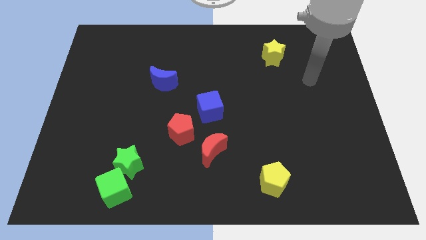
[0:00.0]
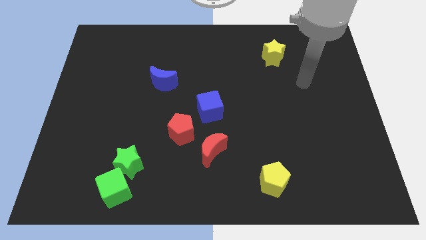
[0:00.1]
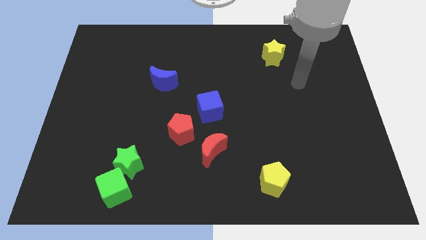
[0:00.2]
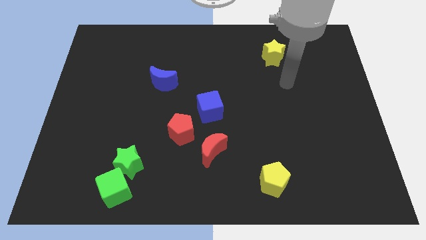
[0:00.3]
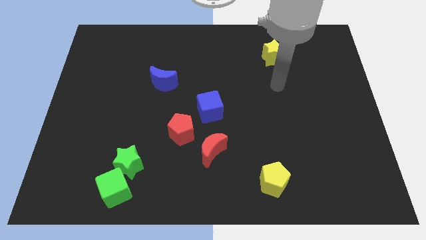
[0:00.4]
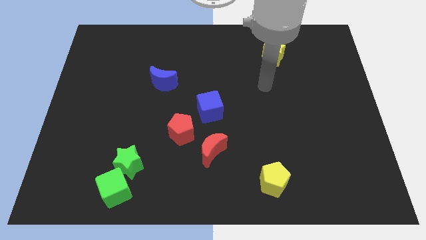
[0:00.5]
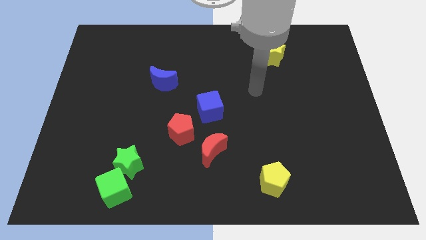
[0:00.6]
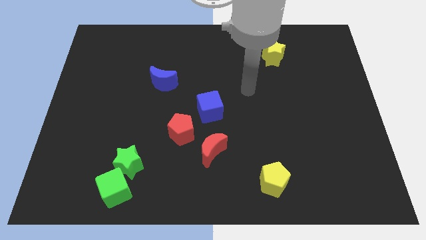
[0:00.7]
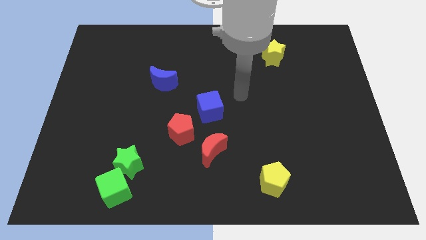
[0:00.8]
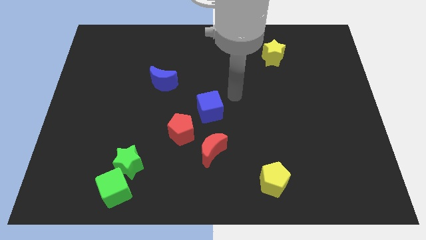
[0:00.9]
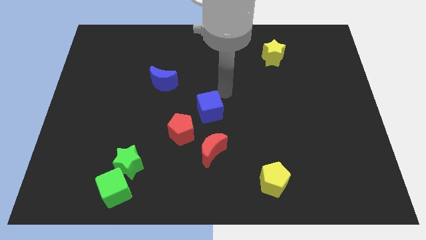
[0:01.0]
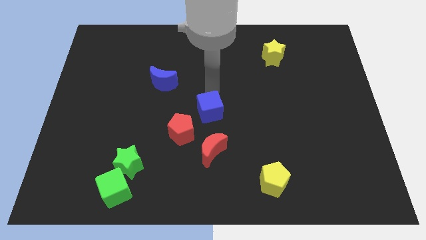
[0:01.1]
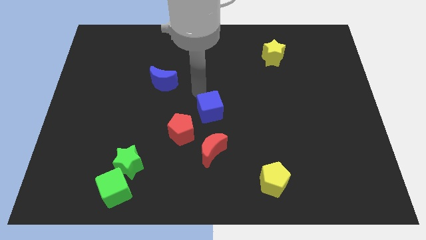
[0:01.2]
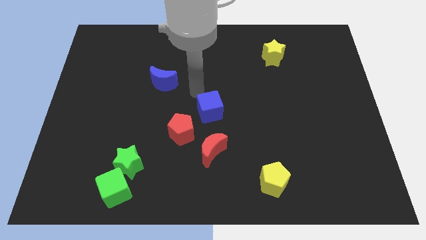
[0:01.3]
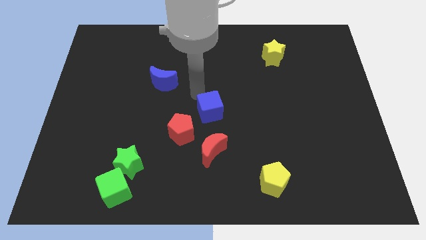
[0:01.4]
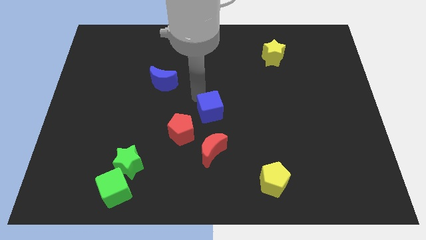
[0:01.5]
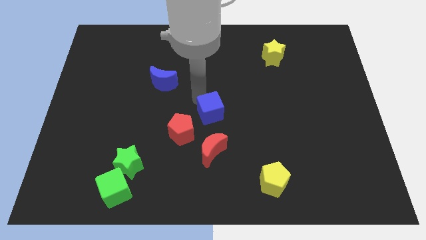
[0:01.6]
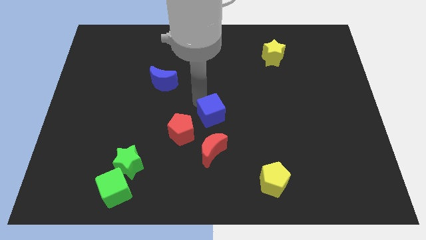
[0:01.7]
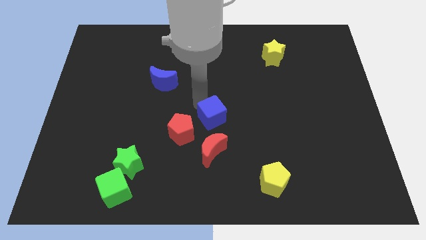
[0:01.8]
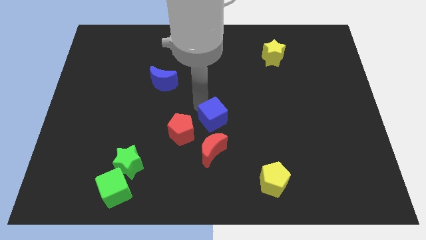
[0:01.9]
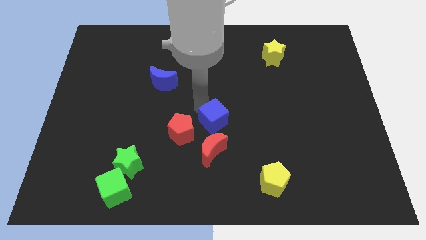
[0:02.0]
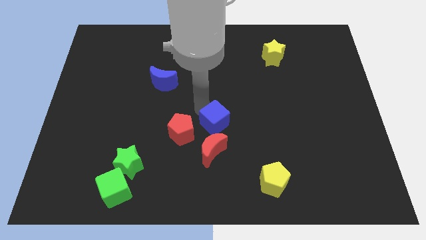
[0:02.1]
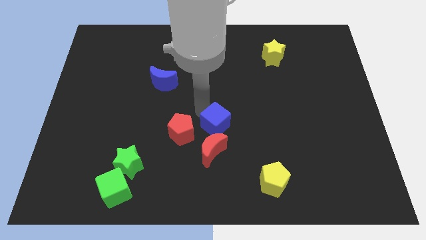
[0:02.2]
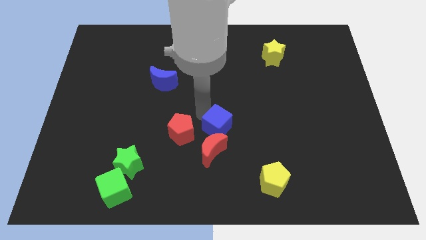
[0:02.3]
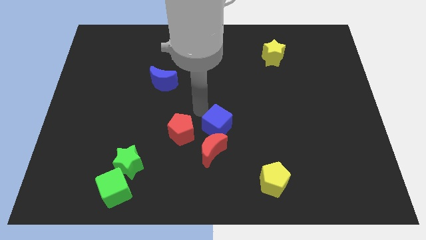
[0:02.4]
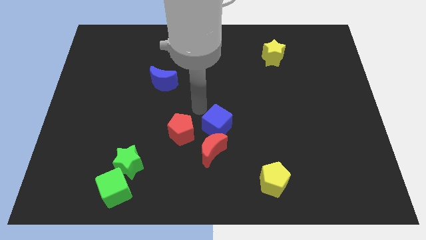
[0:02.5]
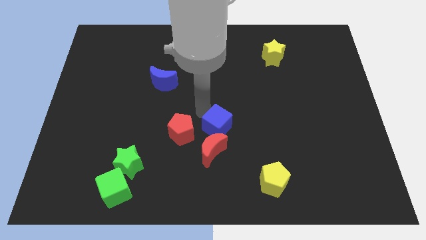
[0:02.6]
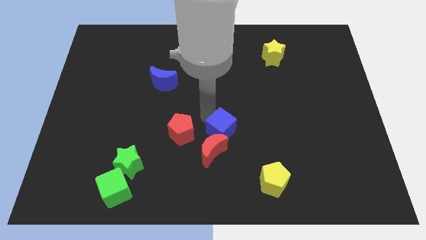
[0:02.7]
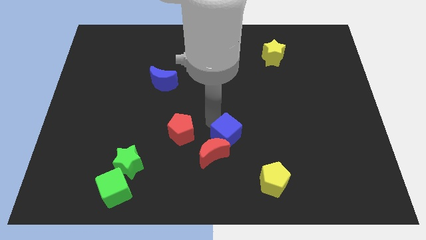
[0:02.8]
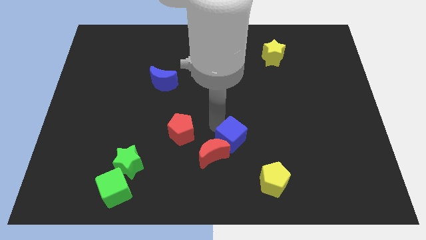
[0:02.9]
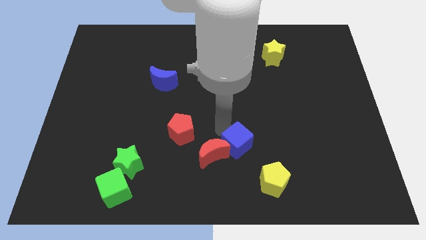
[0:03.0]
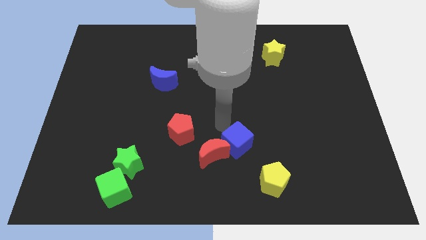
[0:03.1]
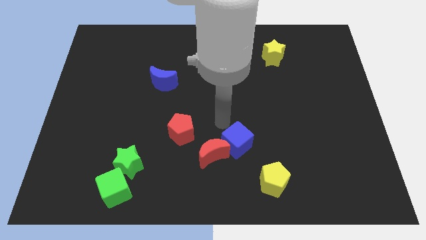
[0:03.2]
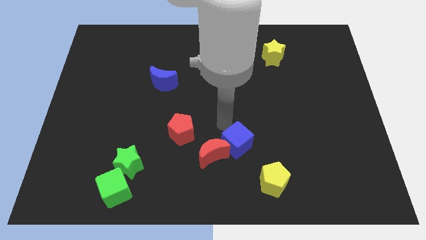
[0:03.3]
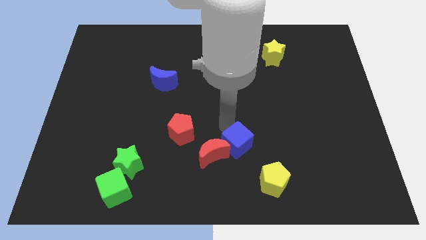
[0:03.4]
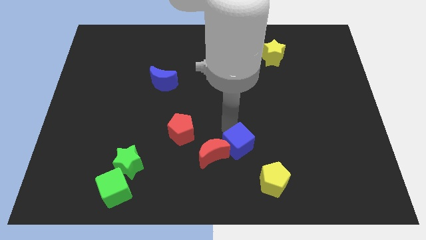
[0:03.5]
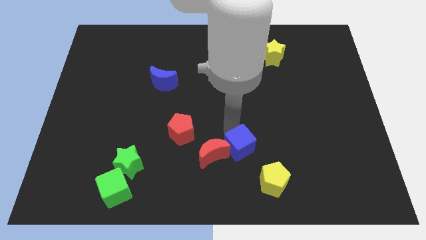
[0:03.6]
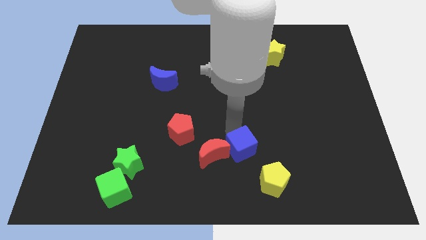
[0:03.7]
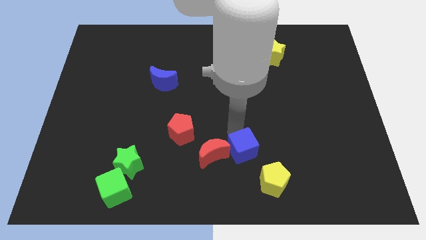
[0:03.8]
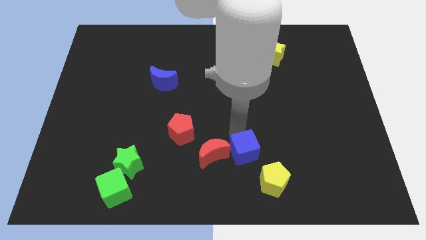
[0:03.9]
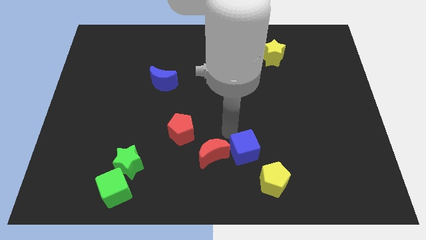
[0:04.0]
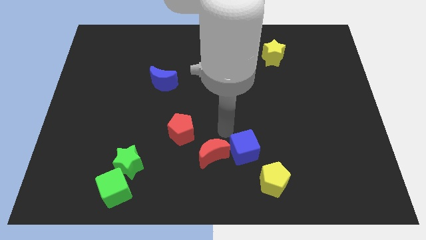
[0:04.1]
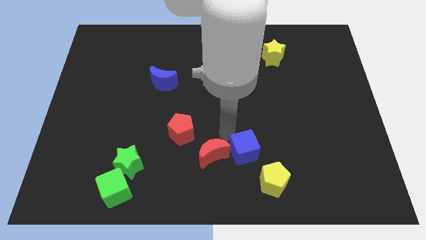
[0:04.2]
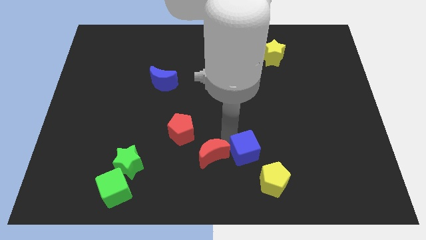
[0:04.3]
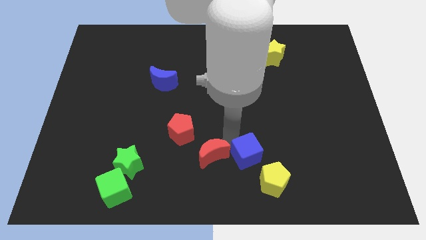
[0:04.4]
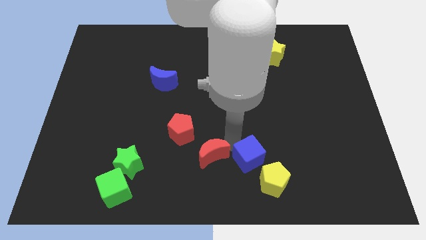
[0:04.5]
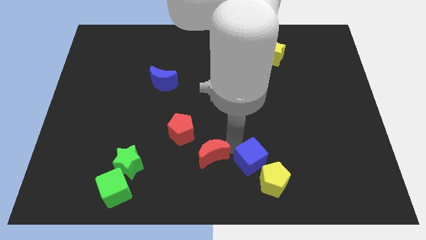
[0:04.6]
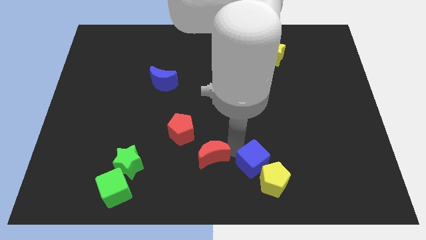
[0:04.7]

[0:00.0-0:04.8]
slide the blue cube towards the yellow pentagon

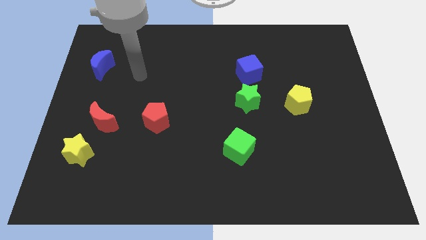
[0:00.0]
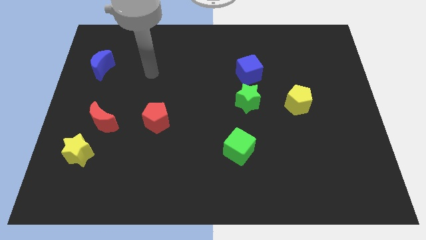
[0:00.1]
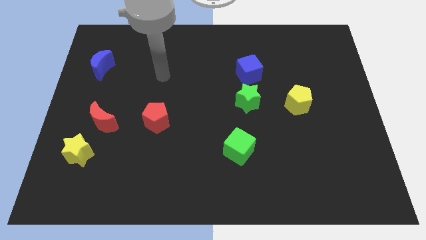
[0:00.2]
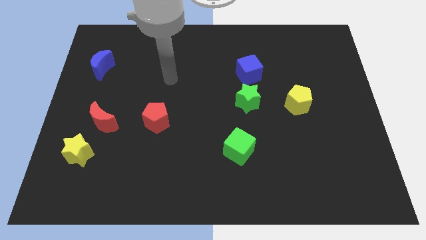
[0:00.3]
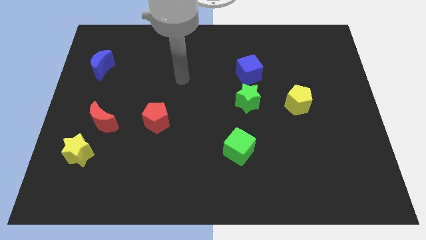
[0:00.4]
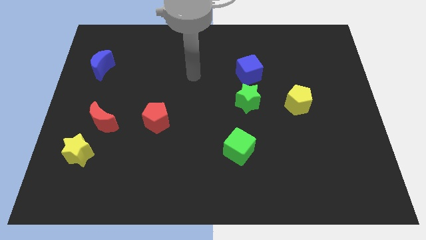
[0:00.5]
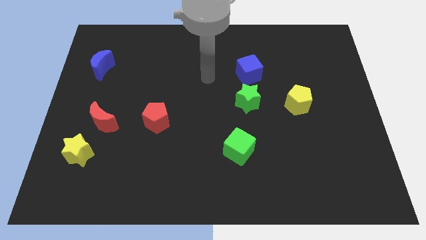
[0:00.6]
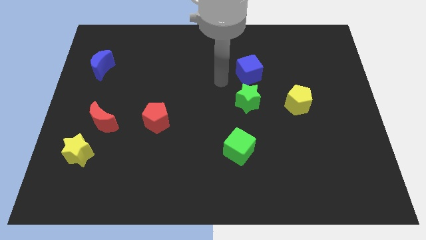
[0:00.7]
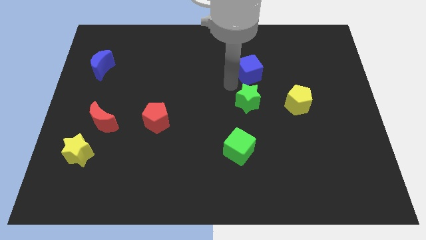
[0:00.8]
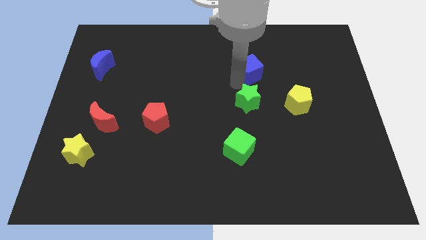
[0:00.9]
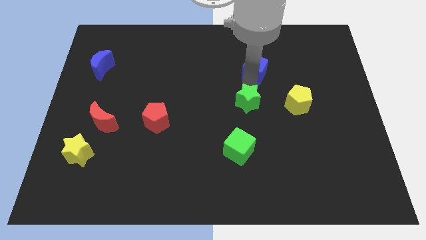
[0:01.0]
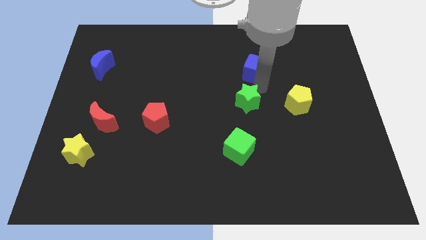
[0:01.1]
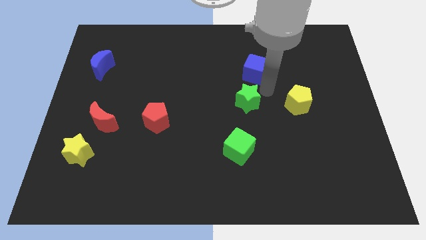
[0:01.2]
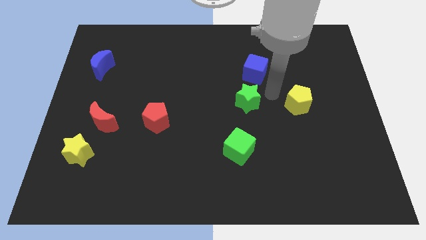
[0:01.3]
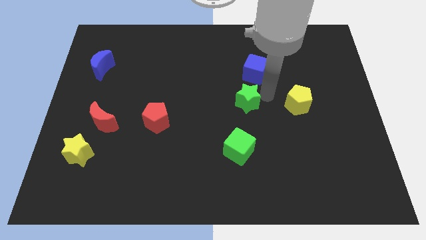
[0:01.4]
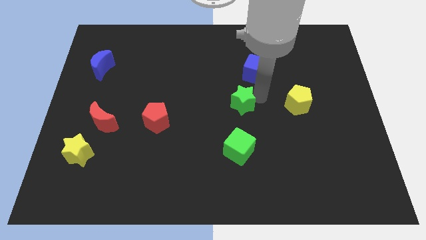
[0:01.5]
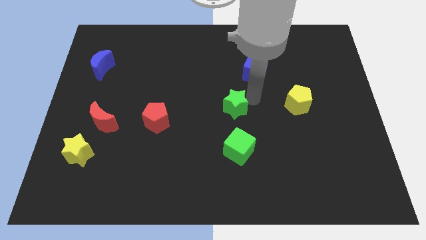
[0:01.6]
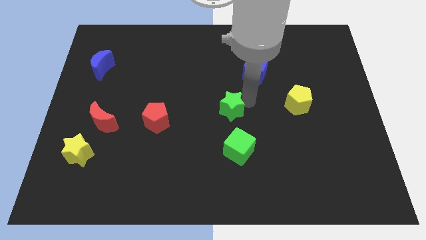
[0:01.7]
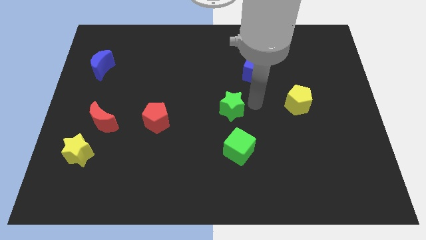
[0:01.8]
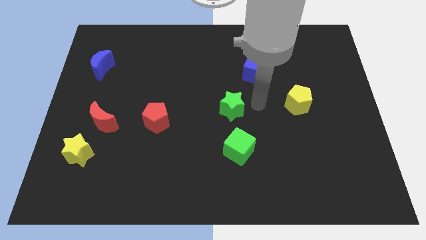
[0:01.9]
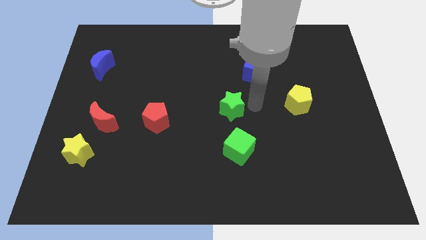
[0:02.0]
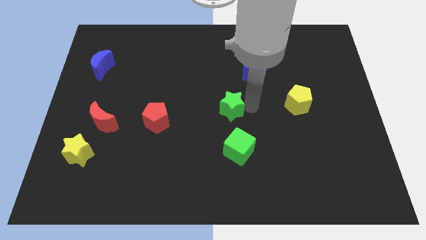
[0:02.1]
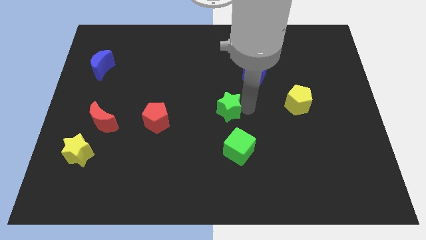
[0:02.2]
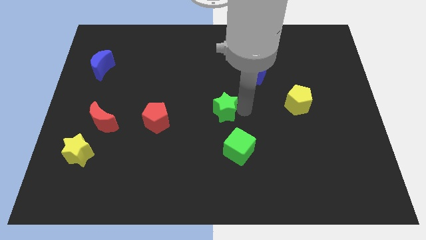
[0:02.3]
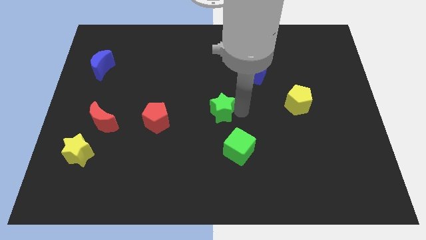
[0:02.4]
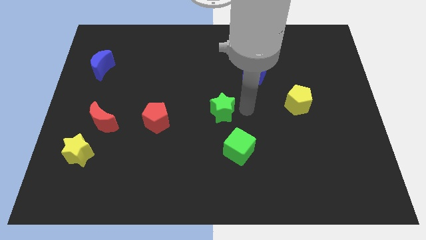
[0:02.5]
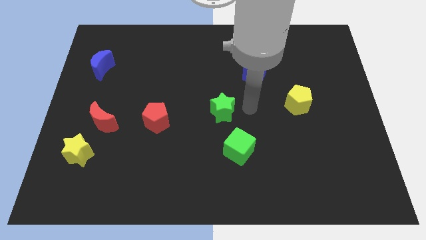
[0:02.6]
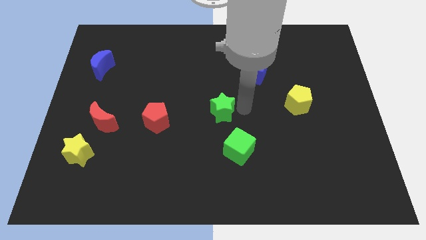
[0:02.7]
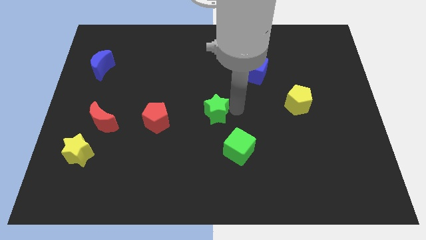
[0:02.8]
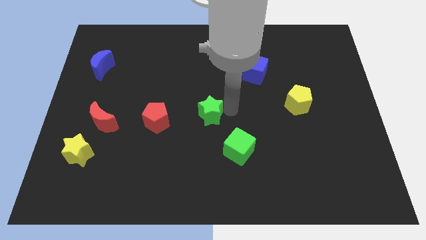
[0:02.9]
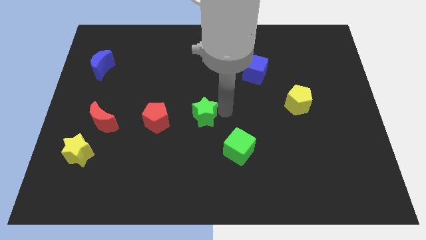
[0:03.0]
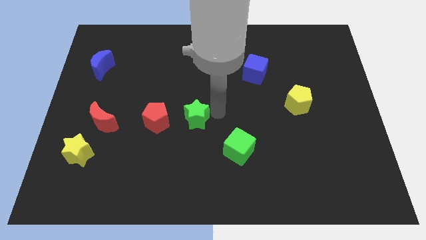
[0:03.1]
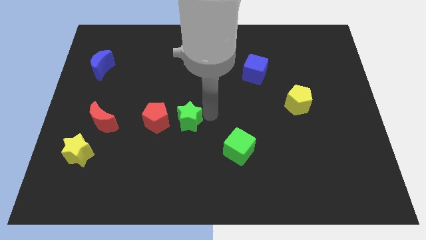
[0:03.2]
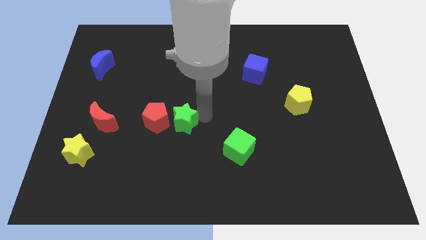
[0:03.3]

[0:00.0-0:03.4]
move the green star next to the red pentagon
